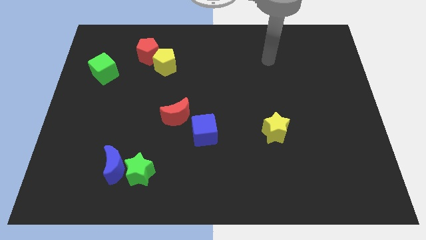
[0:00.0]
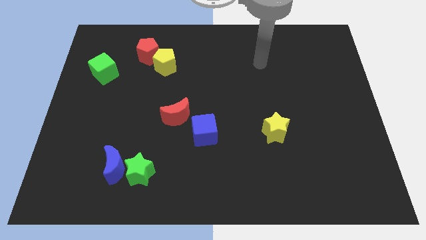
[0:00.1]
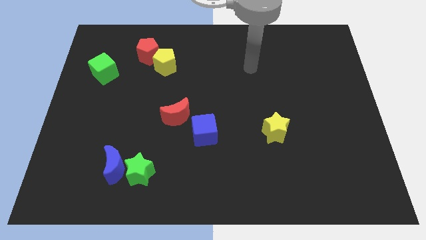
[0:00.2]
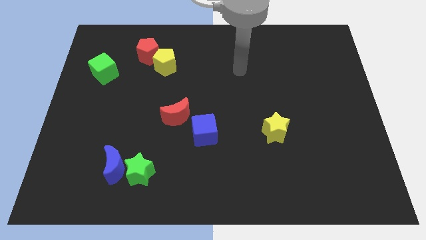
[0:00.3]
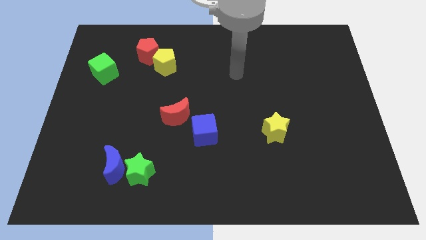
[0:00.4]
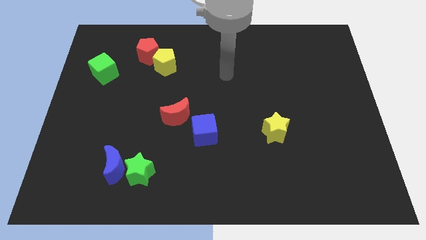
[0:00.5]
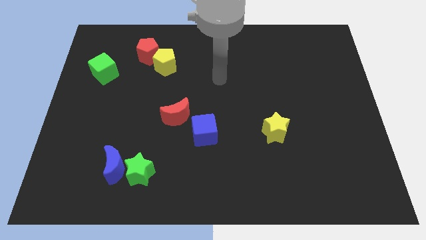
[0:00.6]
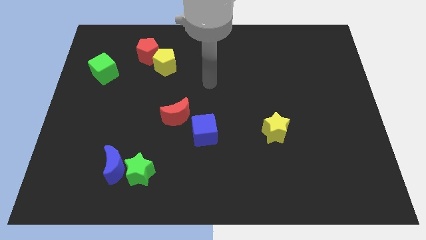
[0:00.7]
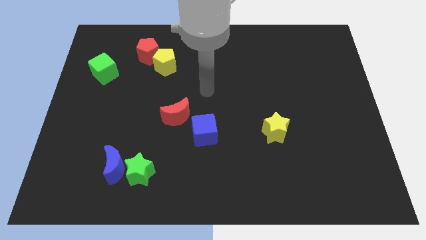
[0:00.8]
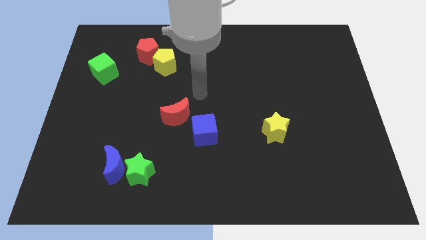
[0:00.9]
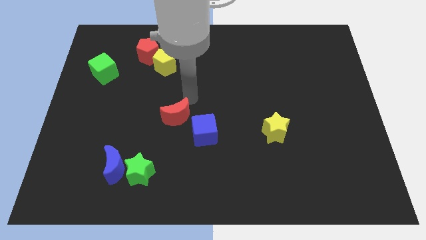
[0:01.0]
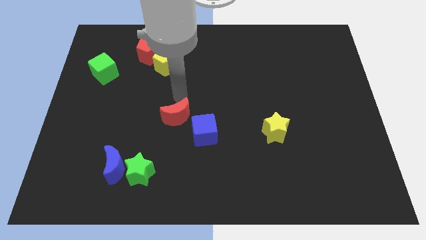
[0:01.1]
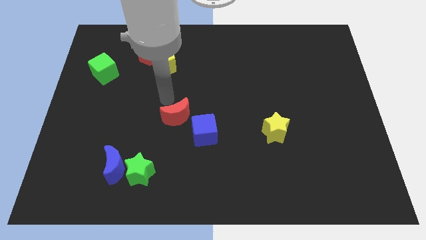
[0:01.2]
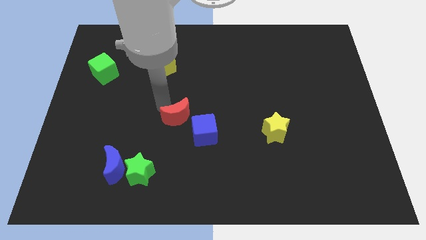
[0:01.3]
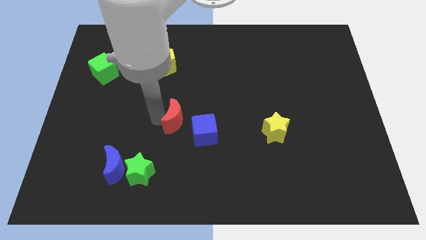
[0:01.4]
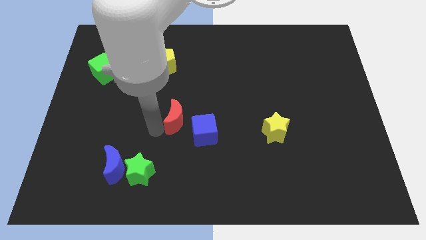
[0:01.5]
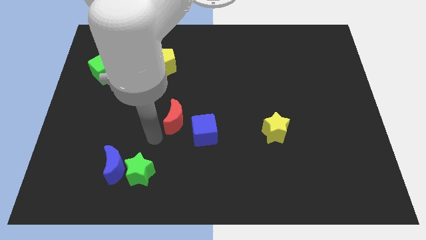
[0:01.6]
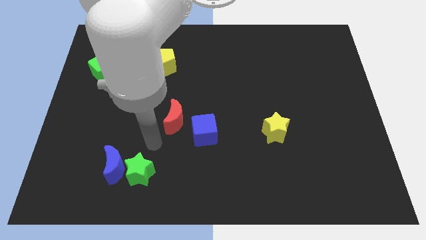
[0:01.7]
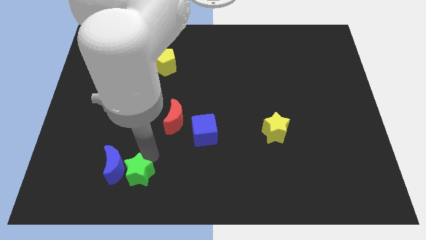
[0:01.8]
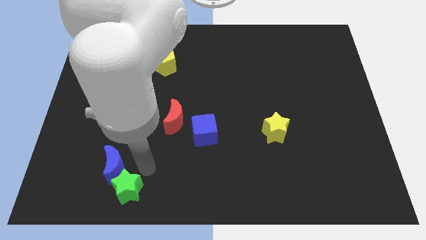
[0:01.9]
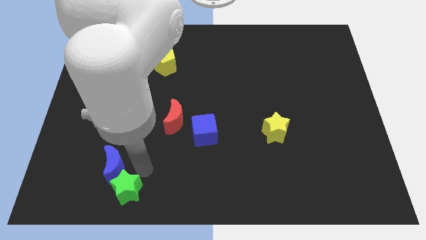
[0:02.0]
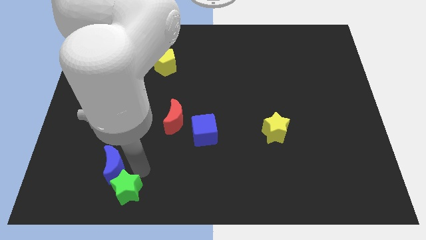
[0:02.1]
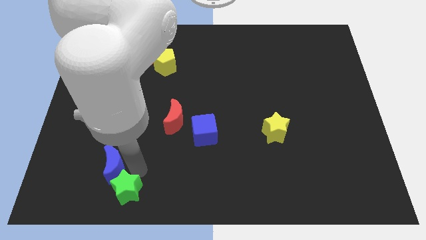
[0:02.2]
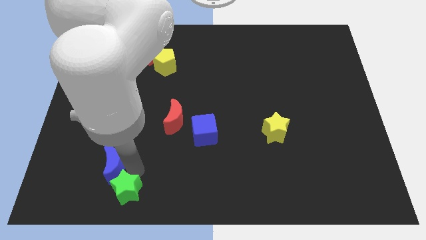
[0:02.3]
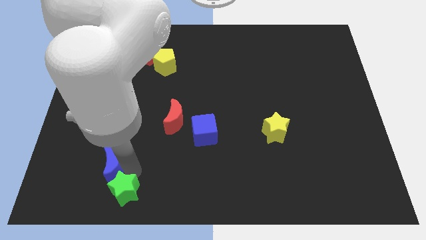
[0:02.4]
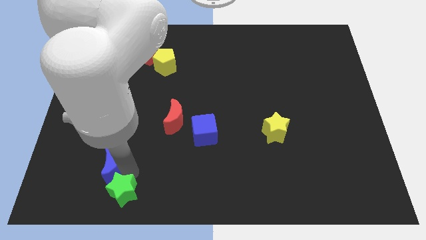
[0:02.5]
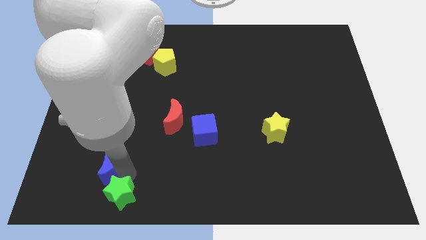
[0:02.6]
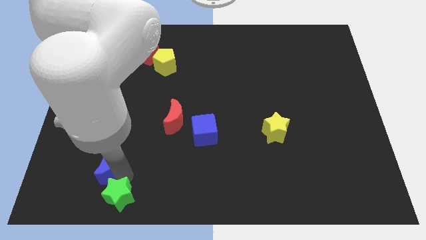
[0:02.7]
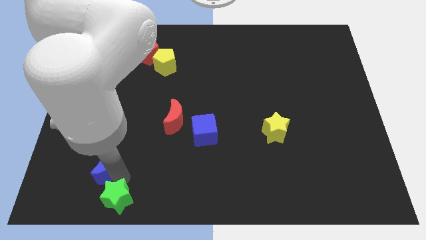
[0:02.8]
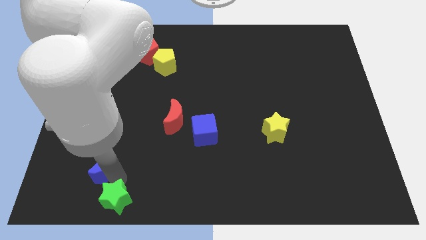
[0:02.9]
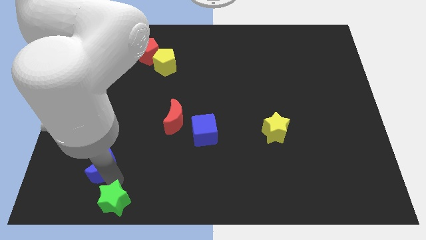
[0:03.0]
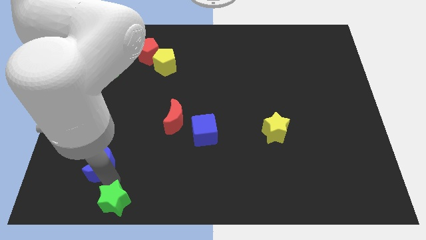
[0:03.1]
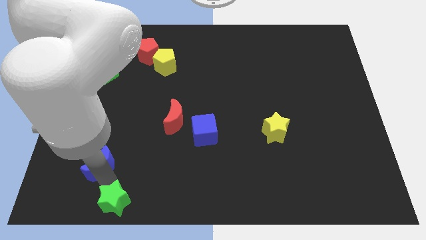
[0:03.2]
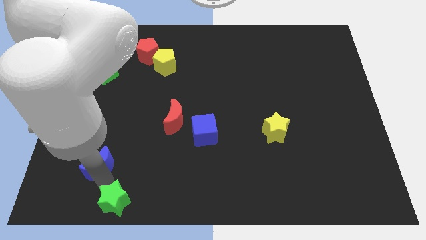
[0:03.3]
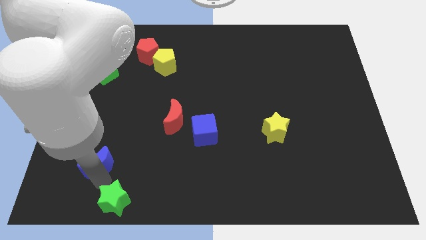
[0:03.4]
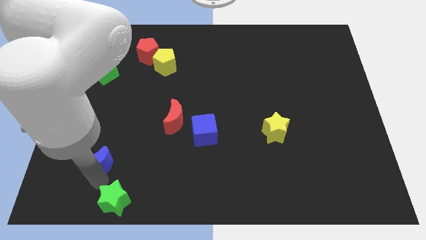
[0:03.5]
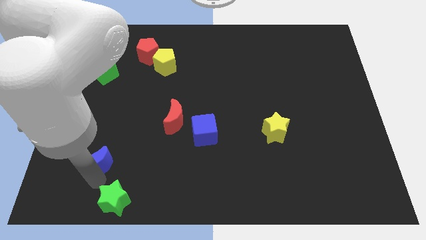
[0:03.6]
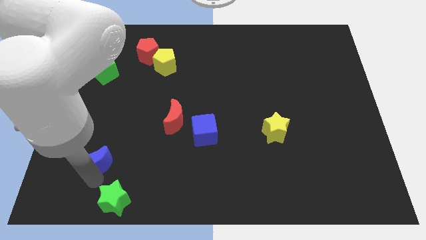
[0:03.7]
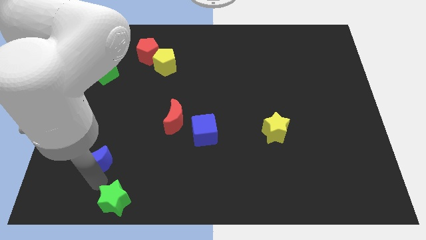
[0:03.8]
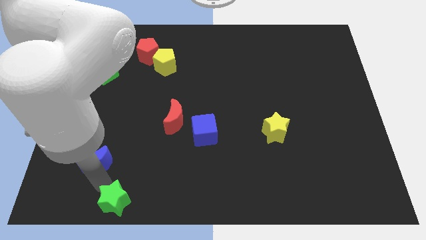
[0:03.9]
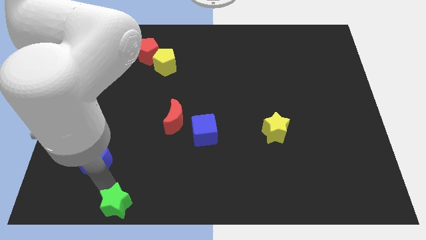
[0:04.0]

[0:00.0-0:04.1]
move the blue moon away from the green star

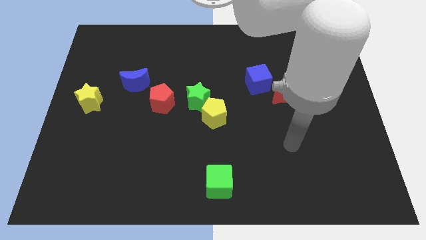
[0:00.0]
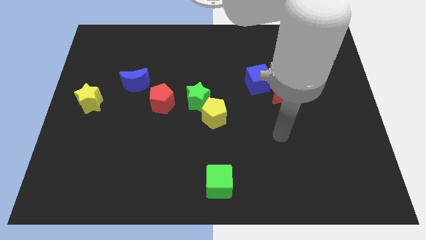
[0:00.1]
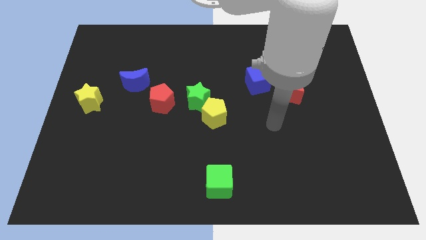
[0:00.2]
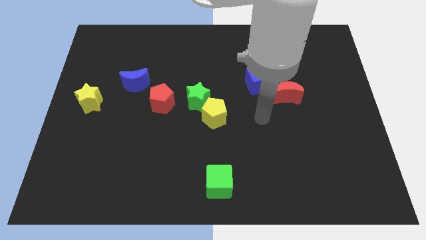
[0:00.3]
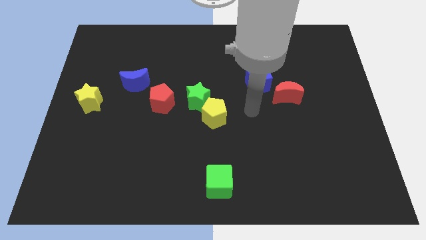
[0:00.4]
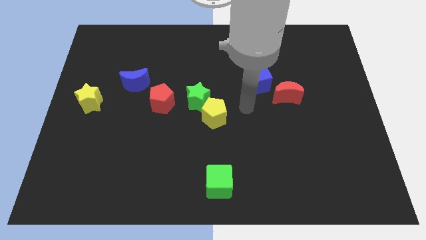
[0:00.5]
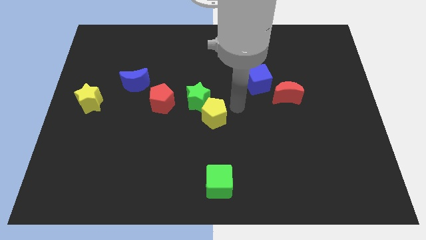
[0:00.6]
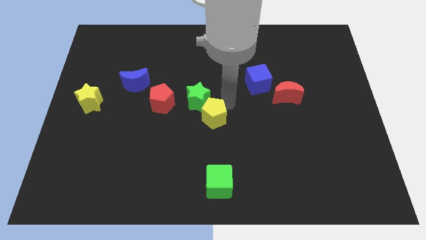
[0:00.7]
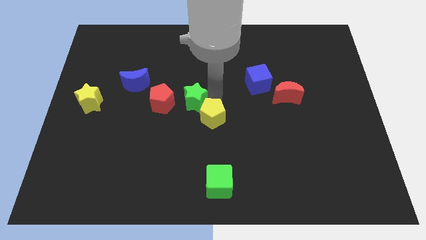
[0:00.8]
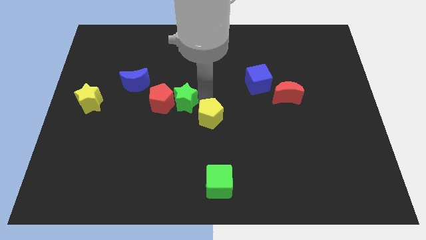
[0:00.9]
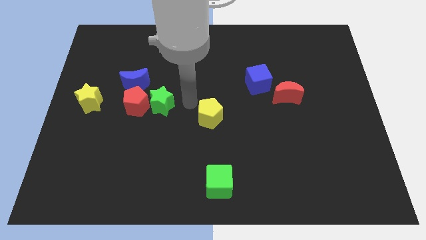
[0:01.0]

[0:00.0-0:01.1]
pull the yellow pentagon apart from the green star

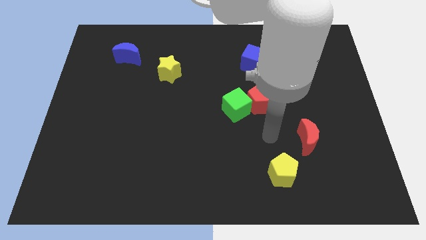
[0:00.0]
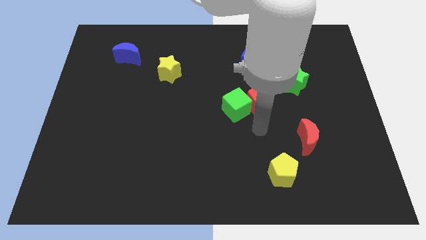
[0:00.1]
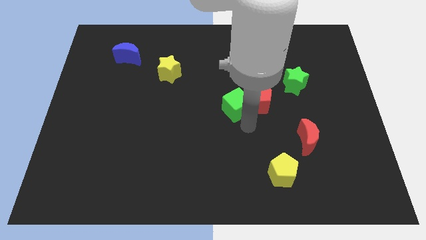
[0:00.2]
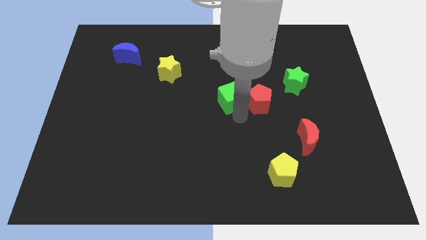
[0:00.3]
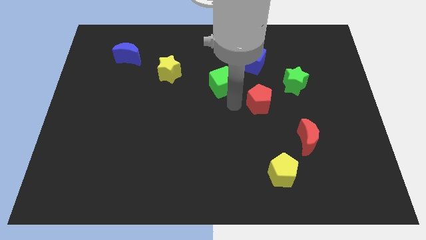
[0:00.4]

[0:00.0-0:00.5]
separate the red pentagon from the green cube

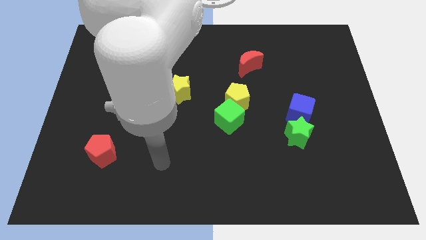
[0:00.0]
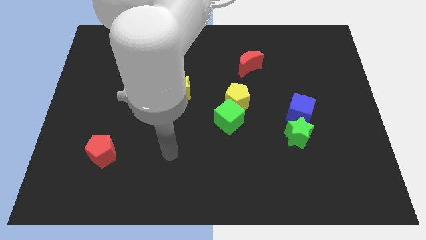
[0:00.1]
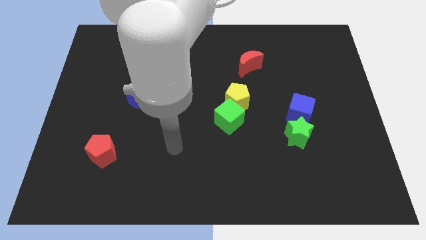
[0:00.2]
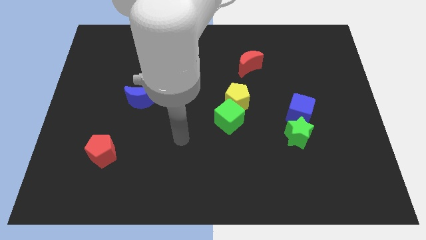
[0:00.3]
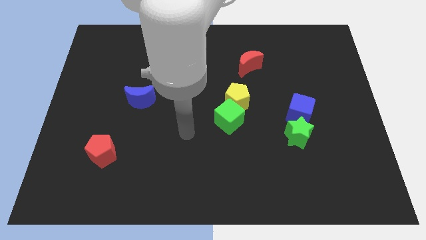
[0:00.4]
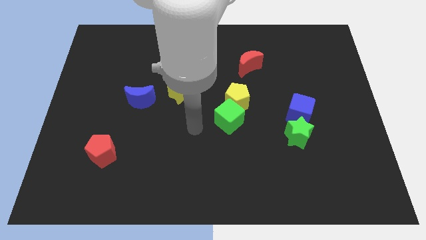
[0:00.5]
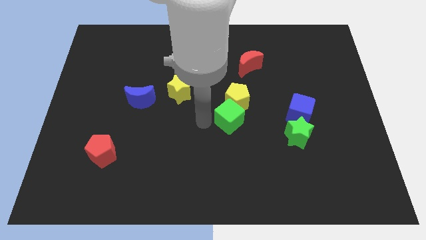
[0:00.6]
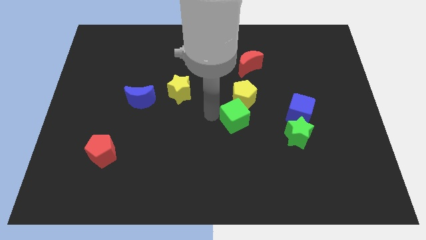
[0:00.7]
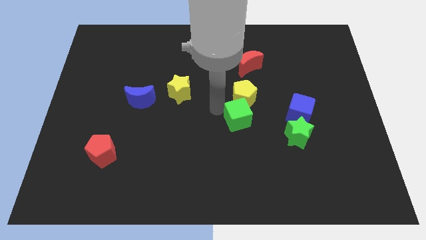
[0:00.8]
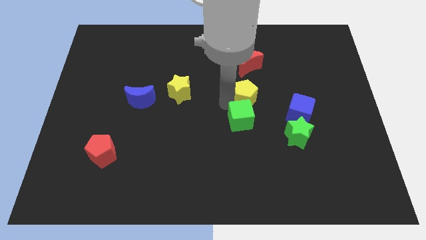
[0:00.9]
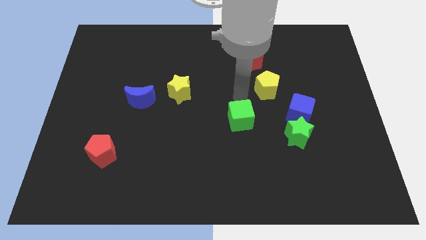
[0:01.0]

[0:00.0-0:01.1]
move the green cube away from the yellow pentagon

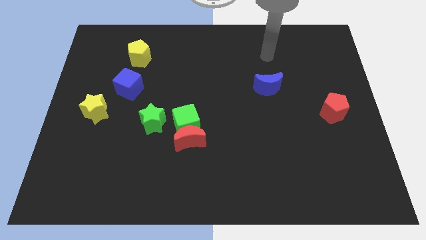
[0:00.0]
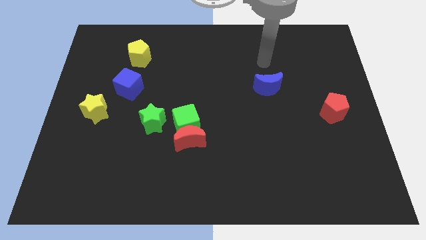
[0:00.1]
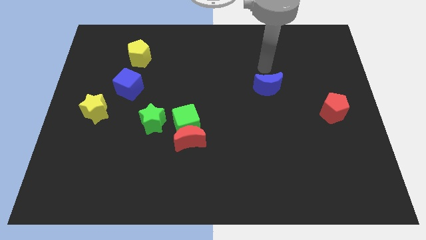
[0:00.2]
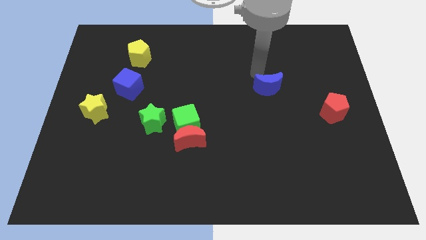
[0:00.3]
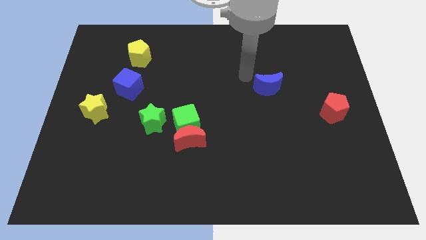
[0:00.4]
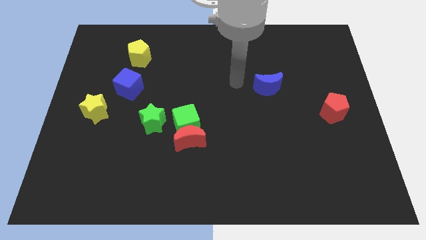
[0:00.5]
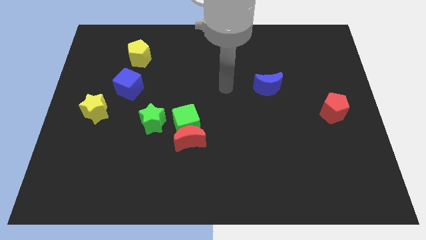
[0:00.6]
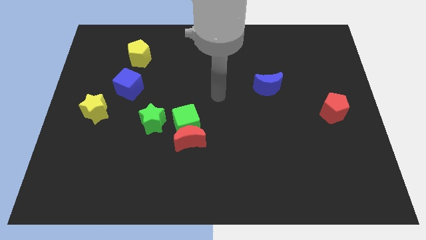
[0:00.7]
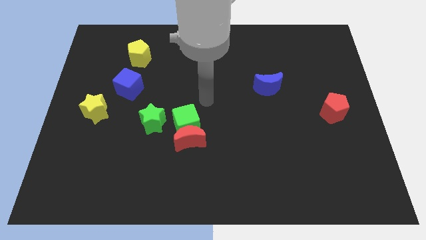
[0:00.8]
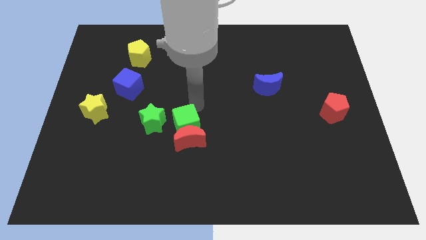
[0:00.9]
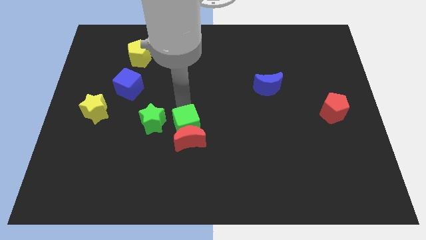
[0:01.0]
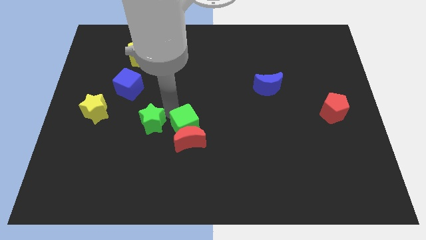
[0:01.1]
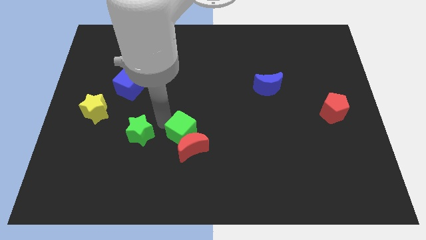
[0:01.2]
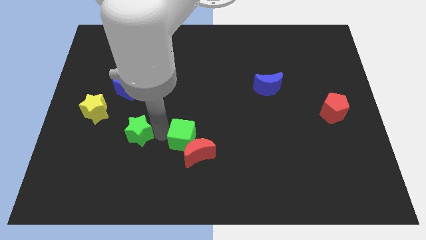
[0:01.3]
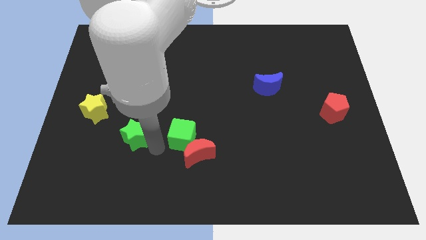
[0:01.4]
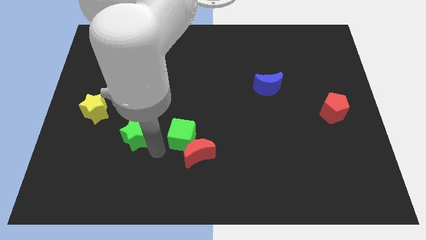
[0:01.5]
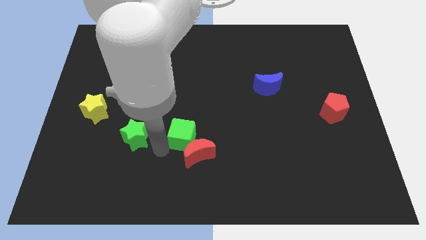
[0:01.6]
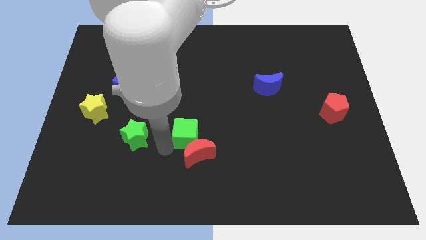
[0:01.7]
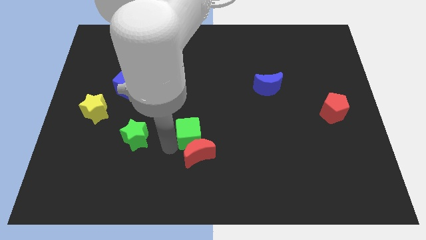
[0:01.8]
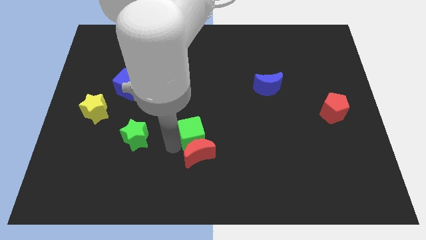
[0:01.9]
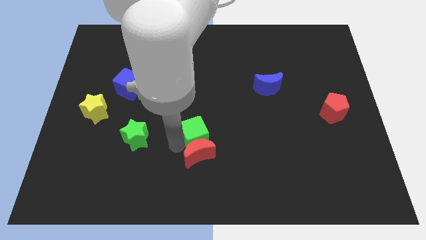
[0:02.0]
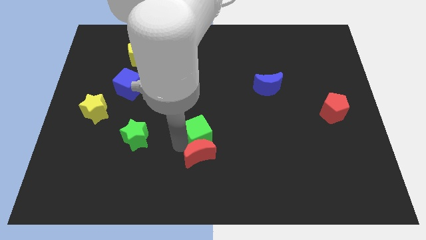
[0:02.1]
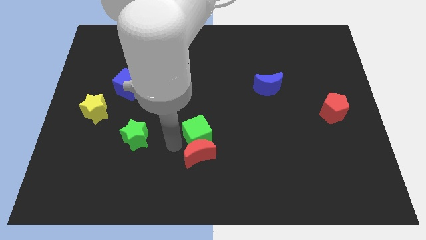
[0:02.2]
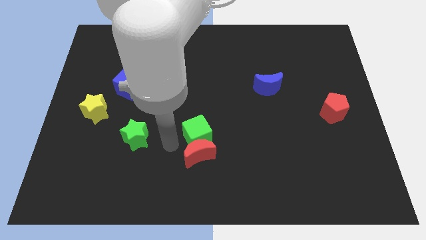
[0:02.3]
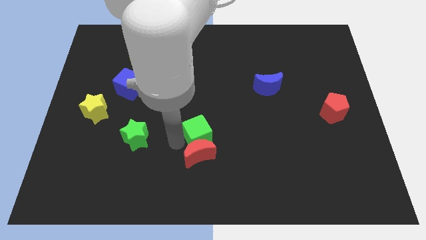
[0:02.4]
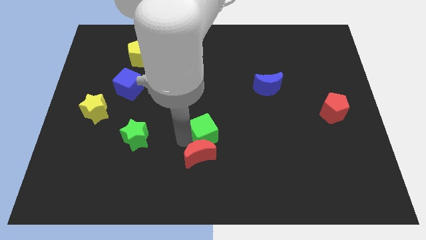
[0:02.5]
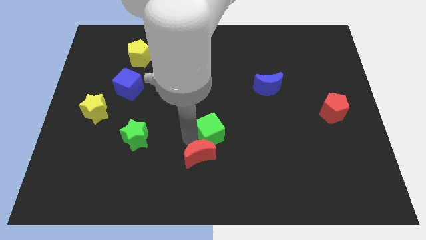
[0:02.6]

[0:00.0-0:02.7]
move the green cube away from the red moon and green star

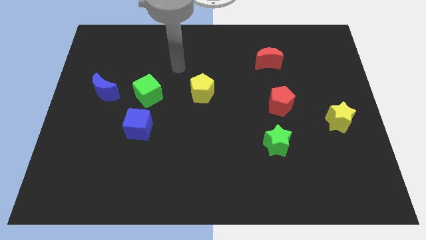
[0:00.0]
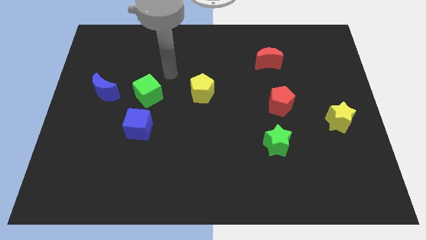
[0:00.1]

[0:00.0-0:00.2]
separate the blue cube from the green cube
